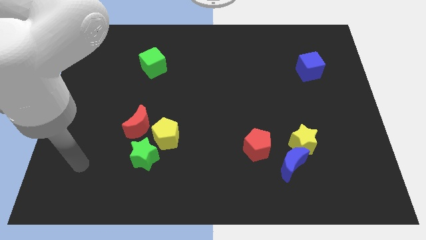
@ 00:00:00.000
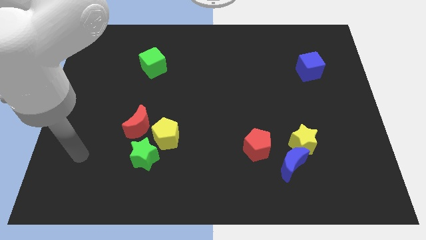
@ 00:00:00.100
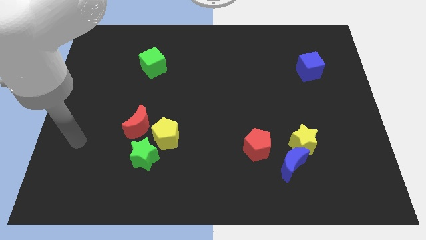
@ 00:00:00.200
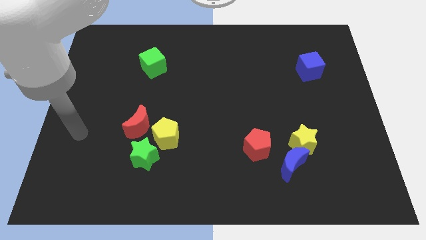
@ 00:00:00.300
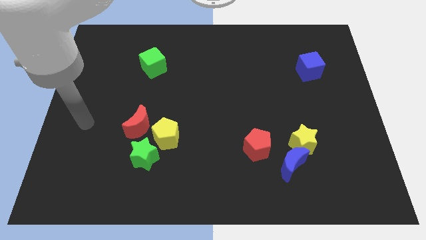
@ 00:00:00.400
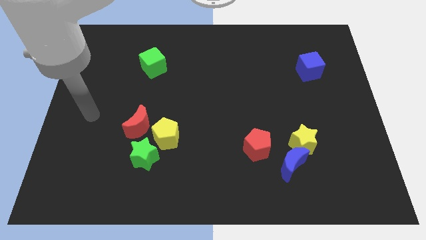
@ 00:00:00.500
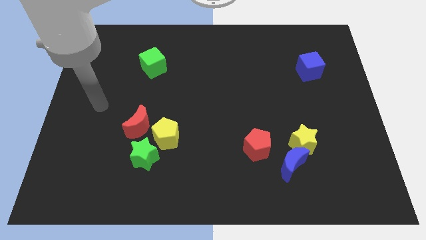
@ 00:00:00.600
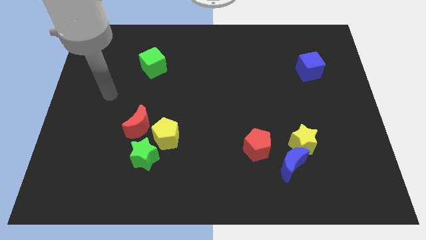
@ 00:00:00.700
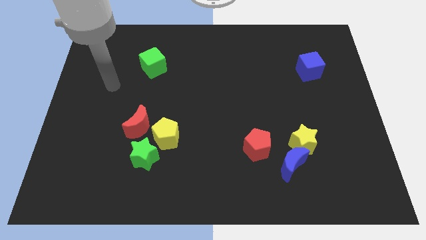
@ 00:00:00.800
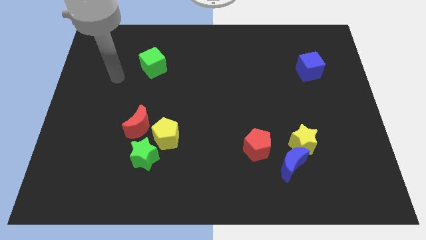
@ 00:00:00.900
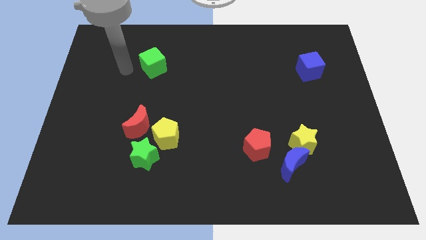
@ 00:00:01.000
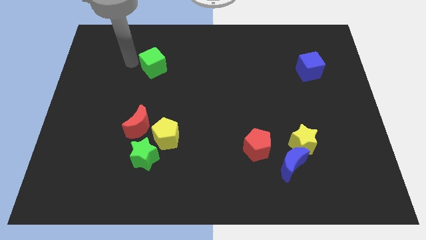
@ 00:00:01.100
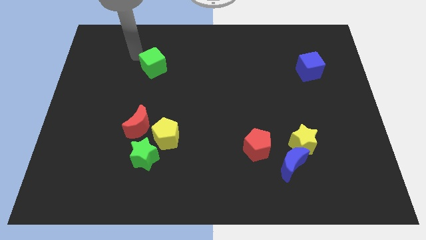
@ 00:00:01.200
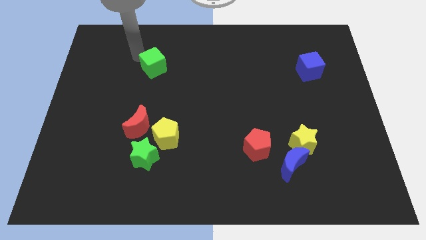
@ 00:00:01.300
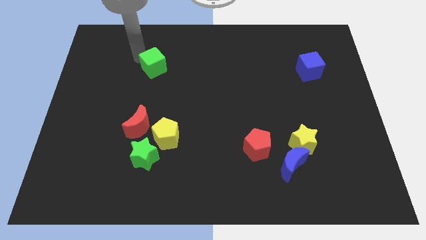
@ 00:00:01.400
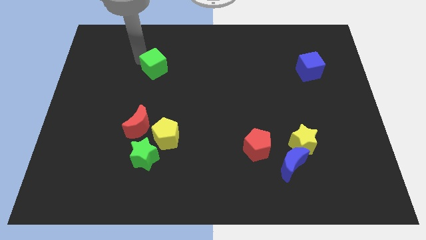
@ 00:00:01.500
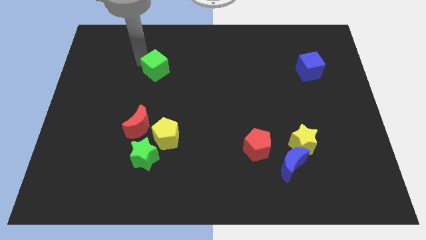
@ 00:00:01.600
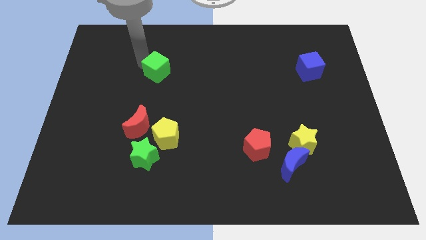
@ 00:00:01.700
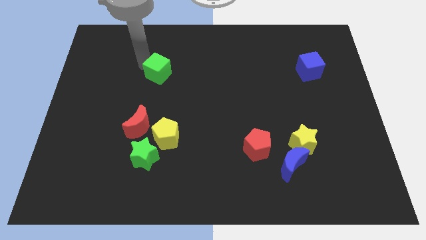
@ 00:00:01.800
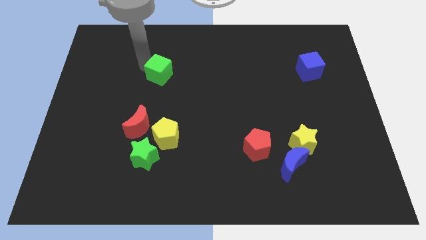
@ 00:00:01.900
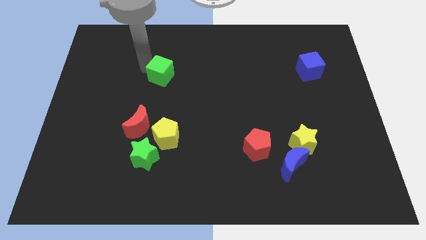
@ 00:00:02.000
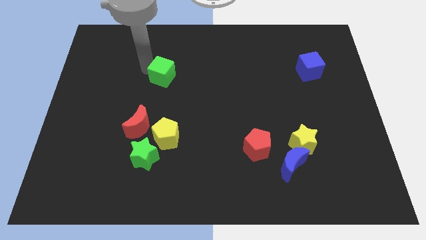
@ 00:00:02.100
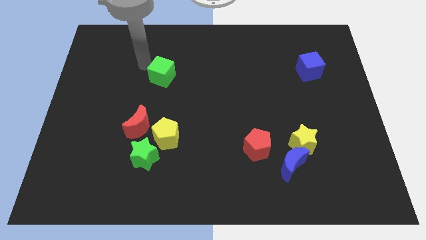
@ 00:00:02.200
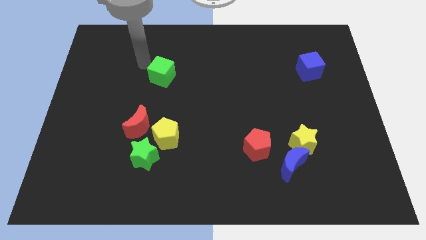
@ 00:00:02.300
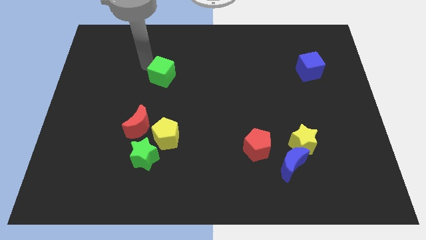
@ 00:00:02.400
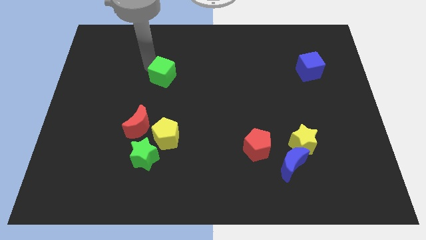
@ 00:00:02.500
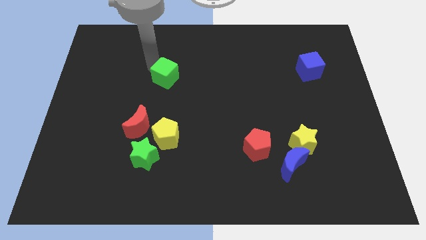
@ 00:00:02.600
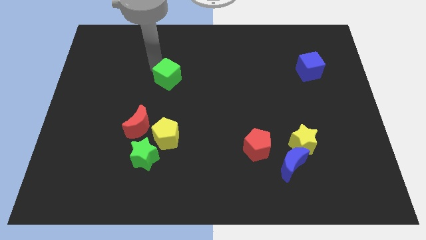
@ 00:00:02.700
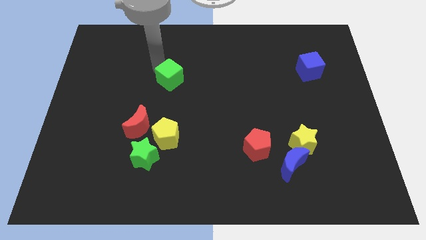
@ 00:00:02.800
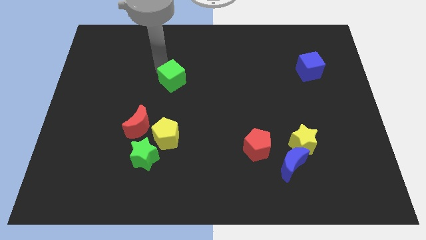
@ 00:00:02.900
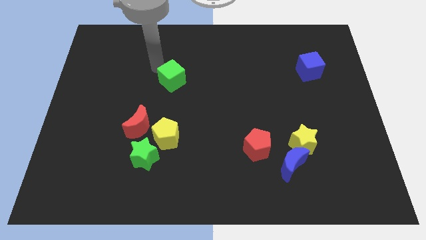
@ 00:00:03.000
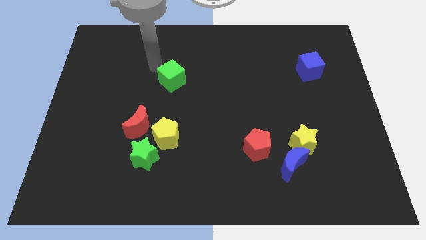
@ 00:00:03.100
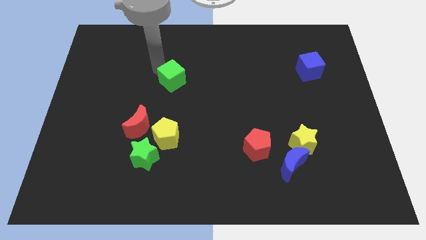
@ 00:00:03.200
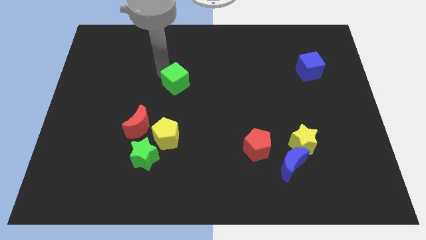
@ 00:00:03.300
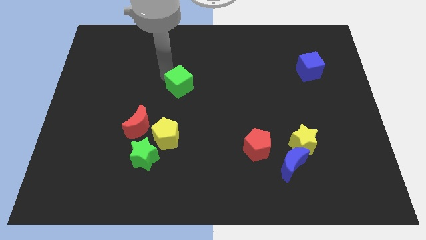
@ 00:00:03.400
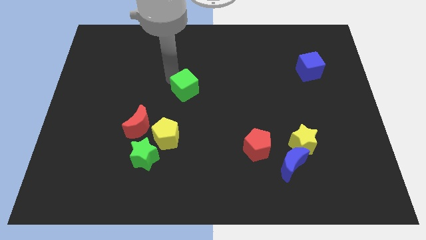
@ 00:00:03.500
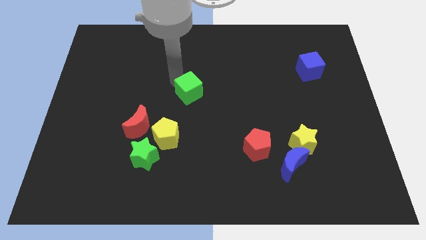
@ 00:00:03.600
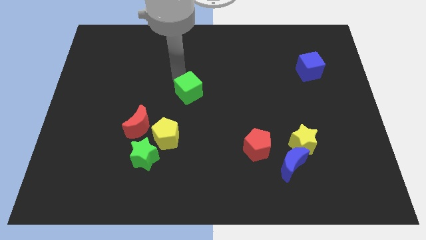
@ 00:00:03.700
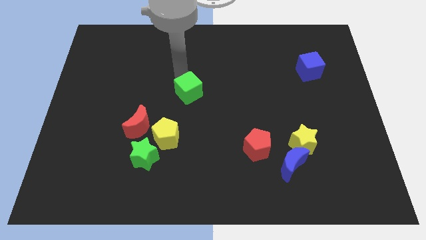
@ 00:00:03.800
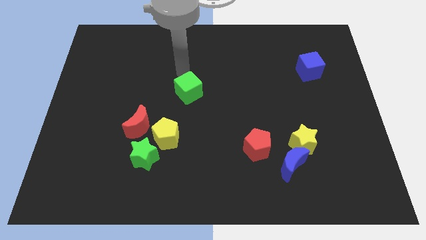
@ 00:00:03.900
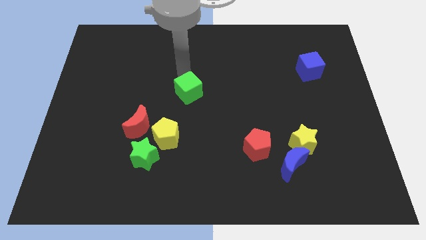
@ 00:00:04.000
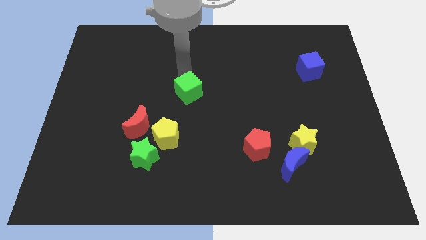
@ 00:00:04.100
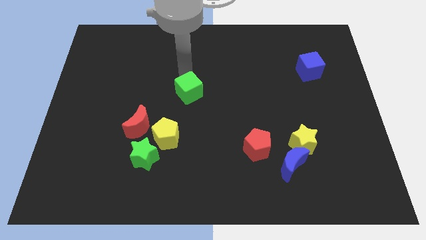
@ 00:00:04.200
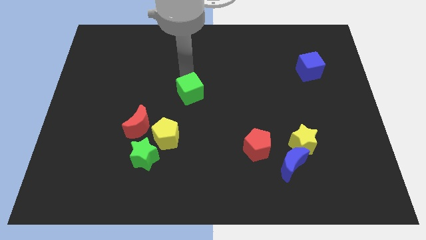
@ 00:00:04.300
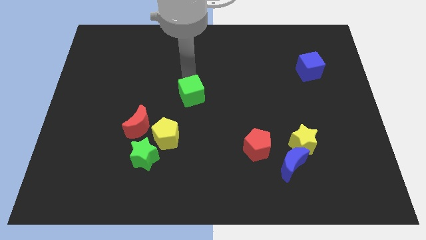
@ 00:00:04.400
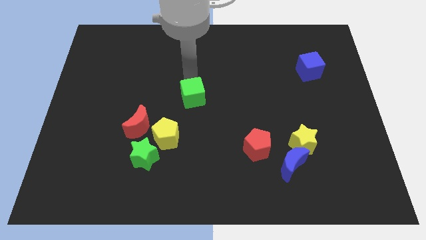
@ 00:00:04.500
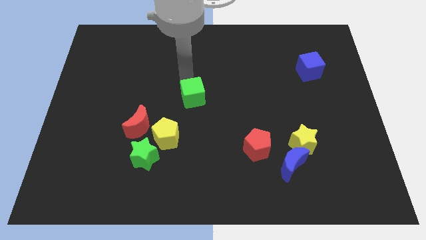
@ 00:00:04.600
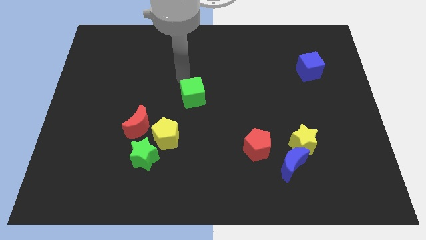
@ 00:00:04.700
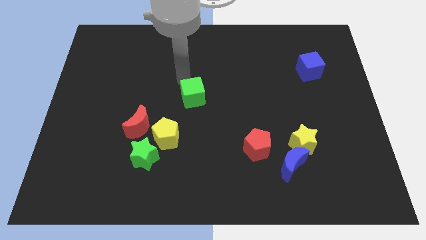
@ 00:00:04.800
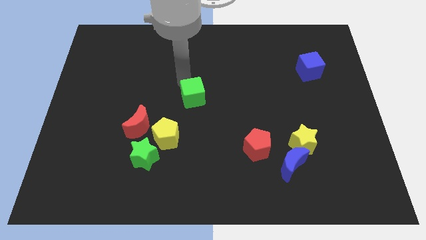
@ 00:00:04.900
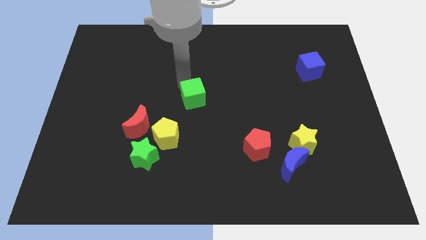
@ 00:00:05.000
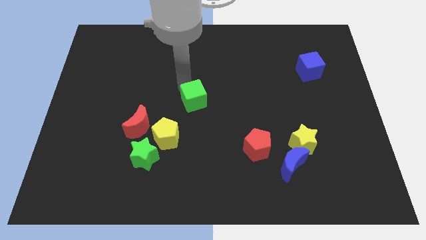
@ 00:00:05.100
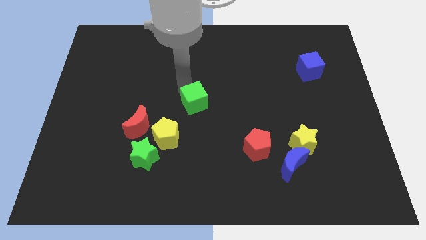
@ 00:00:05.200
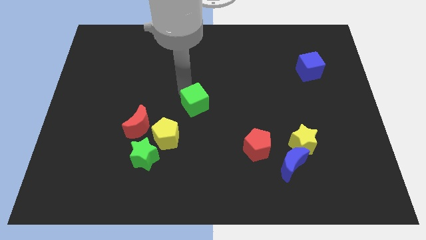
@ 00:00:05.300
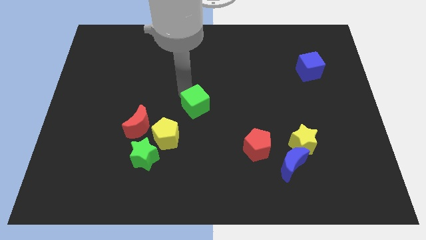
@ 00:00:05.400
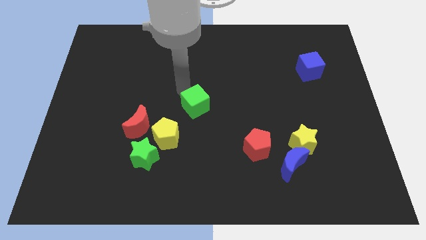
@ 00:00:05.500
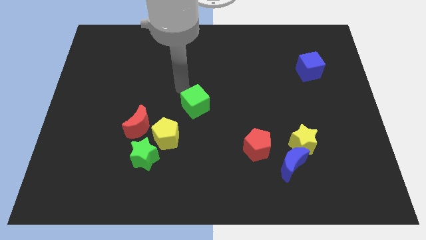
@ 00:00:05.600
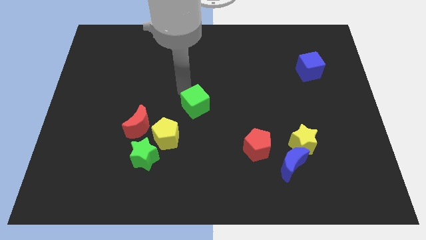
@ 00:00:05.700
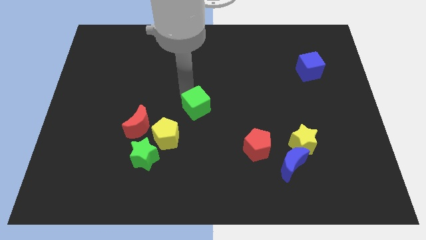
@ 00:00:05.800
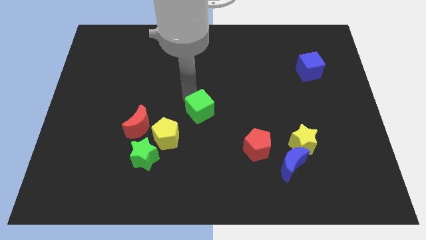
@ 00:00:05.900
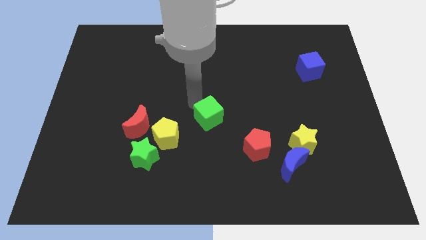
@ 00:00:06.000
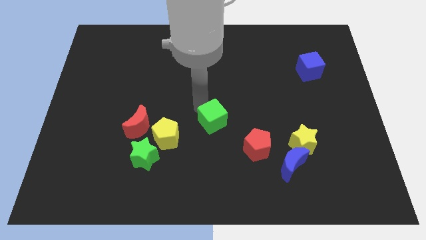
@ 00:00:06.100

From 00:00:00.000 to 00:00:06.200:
push the green cube to the right side of the yellow pentagon
